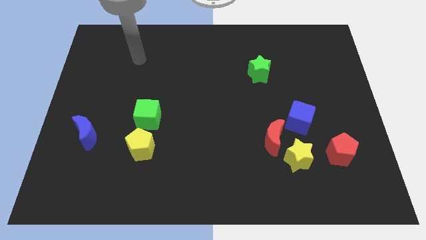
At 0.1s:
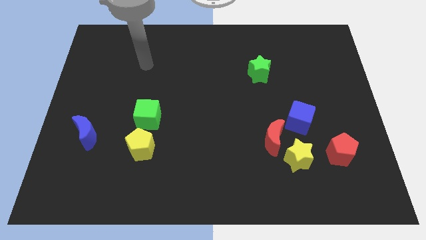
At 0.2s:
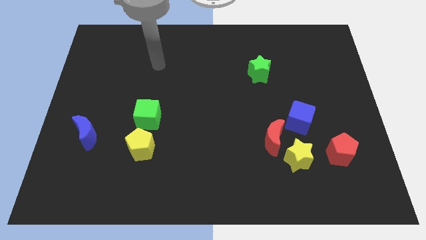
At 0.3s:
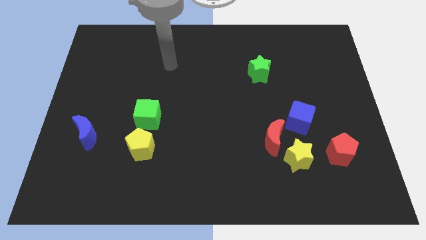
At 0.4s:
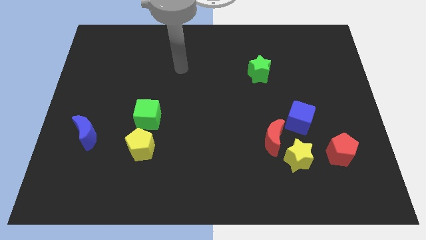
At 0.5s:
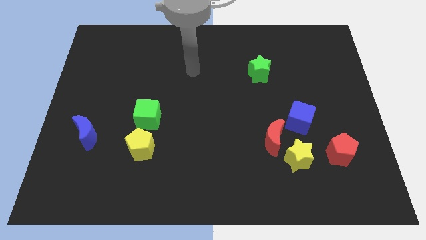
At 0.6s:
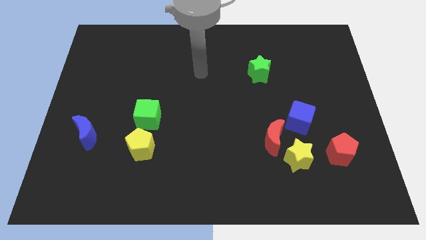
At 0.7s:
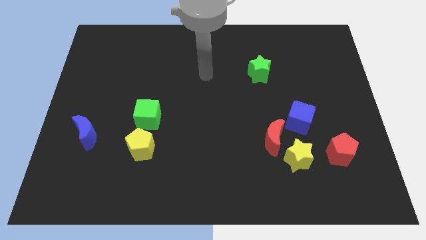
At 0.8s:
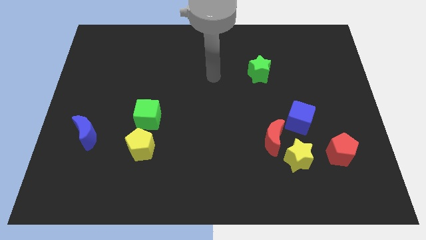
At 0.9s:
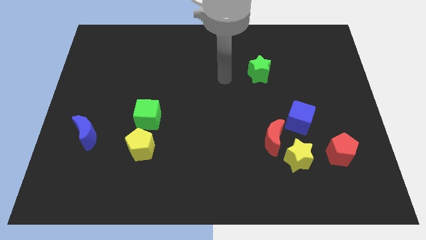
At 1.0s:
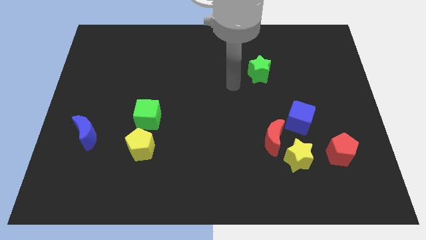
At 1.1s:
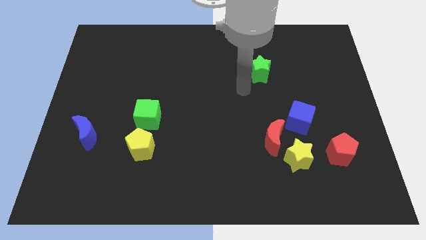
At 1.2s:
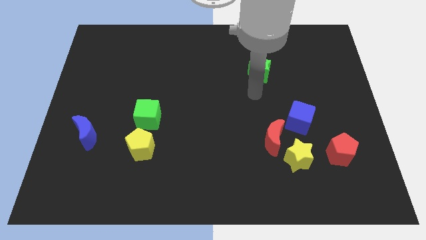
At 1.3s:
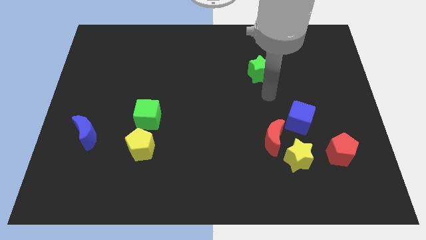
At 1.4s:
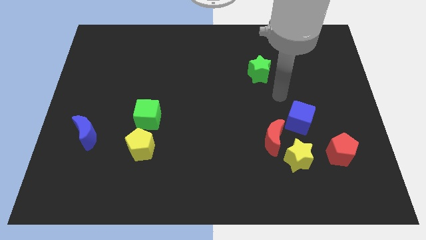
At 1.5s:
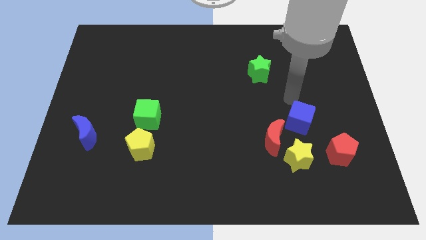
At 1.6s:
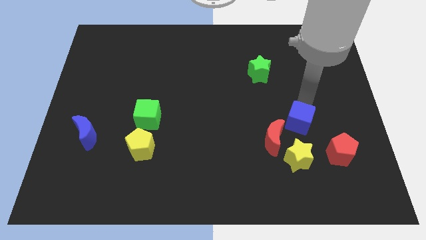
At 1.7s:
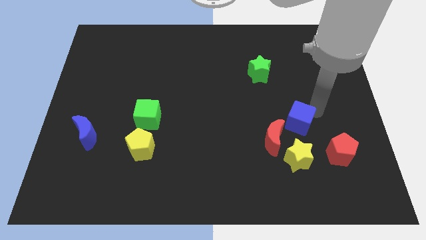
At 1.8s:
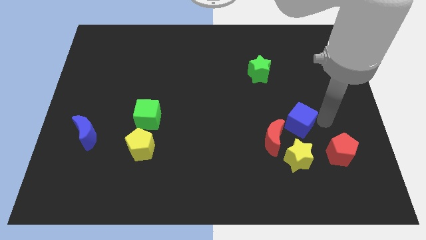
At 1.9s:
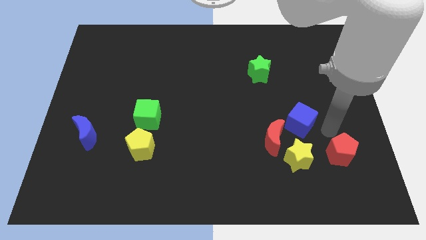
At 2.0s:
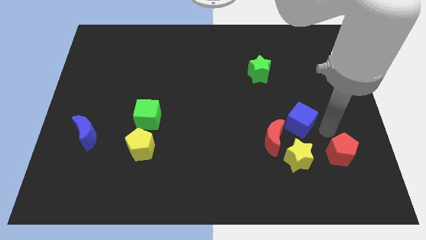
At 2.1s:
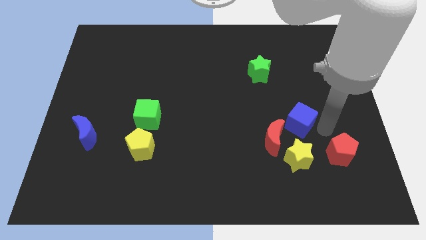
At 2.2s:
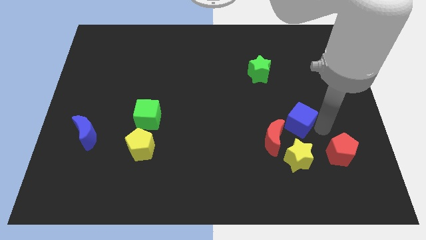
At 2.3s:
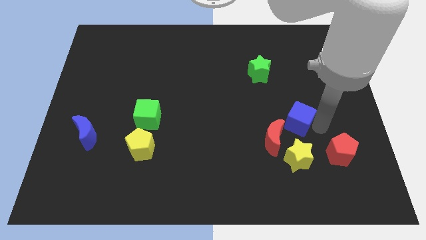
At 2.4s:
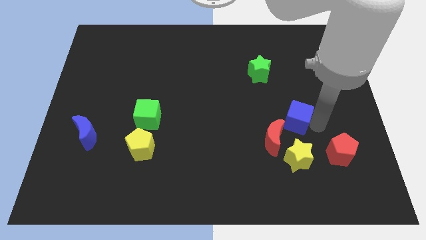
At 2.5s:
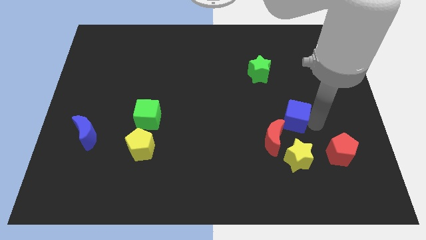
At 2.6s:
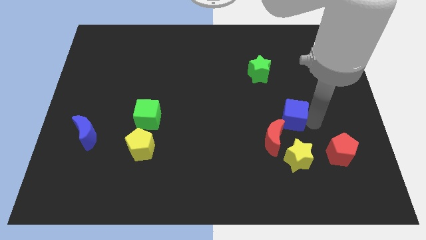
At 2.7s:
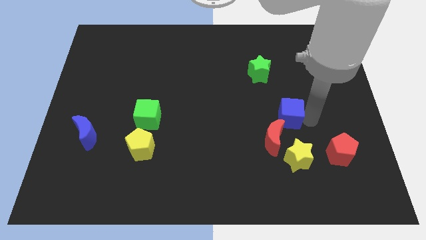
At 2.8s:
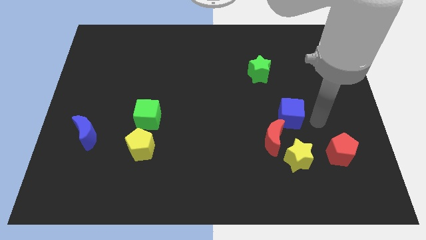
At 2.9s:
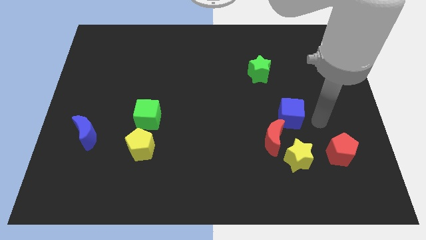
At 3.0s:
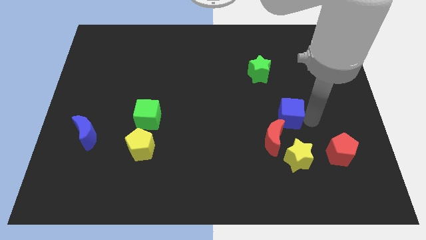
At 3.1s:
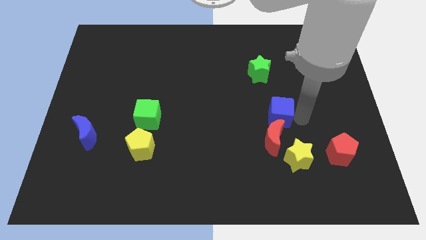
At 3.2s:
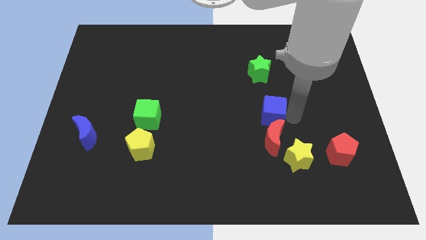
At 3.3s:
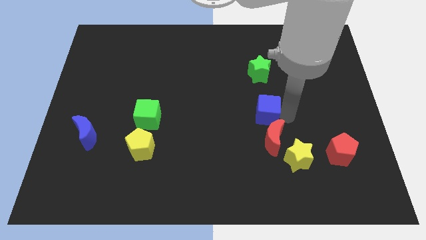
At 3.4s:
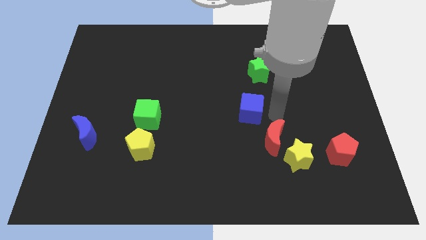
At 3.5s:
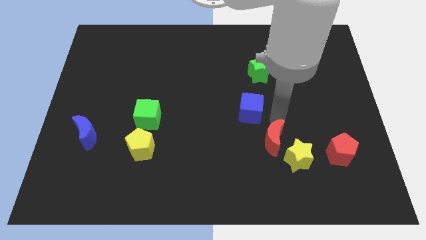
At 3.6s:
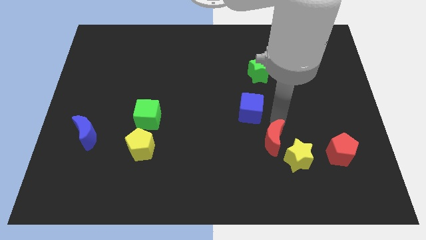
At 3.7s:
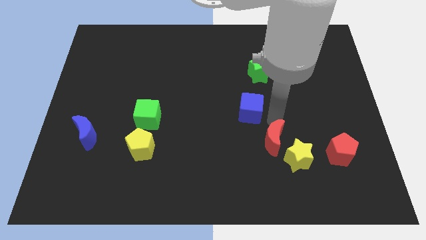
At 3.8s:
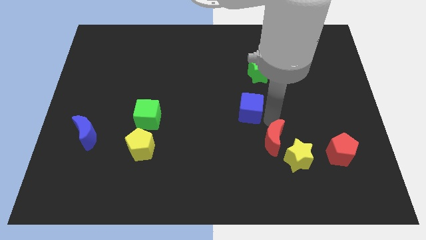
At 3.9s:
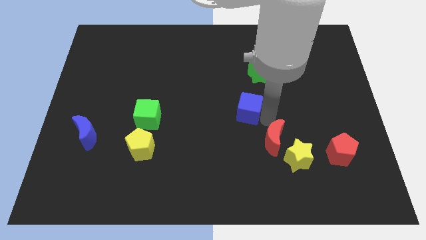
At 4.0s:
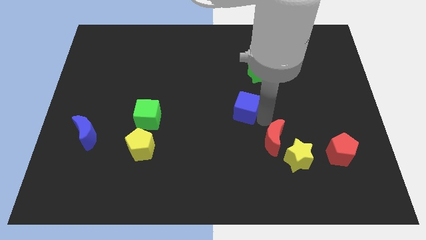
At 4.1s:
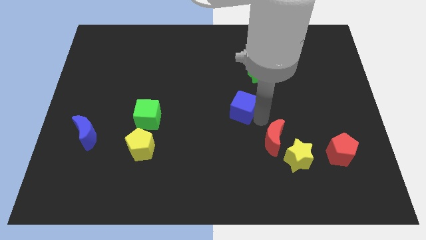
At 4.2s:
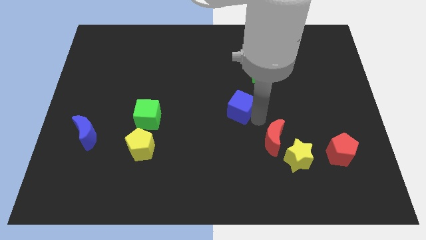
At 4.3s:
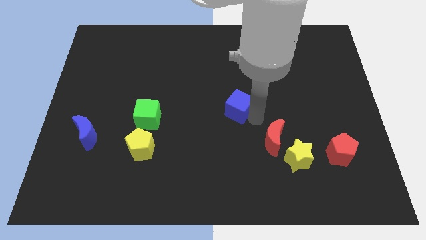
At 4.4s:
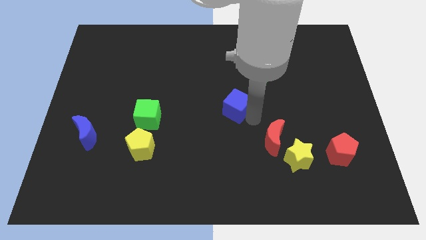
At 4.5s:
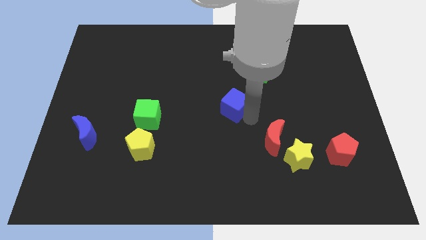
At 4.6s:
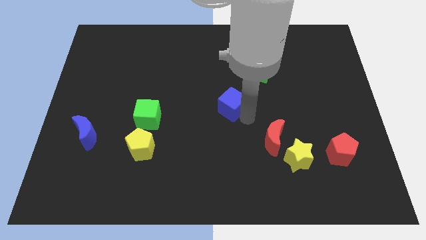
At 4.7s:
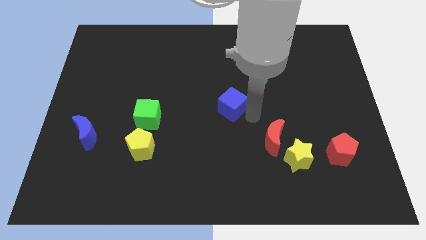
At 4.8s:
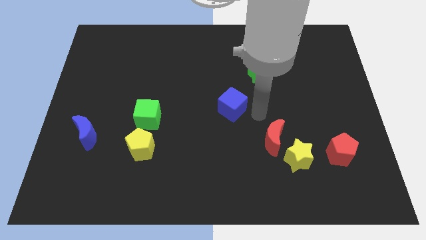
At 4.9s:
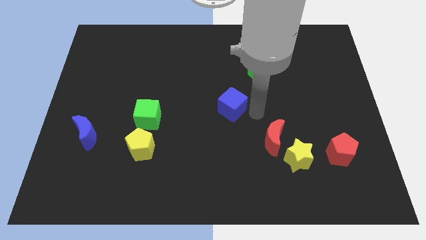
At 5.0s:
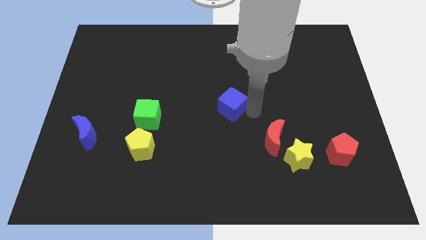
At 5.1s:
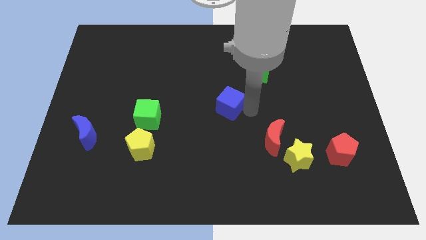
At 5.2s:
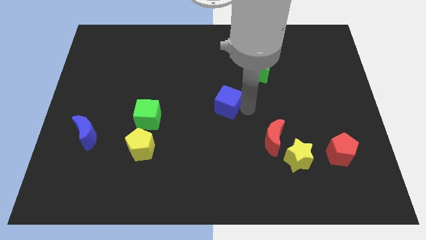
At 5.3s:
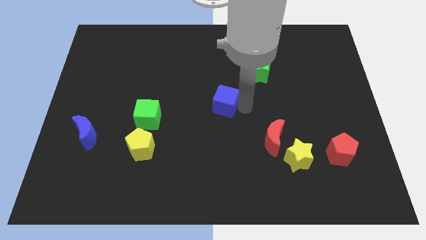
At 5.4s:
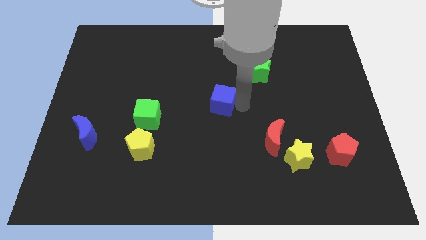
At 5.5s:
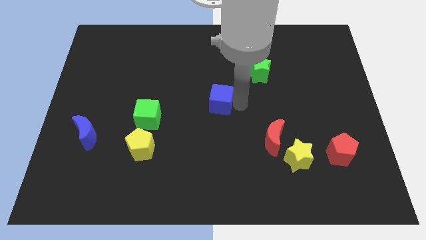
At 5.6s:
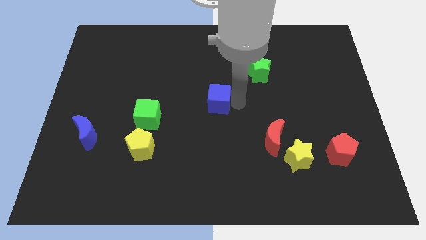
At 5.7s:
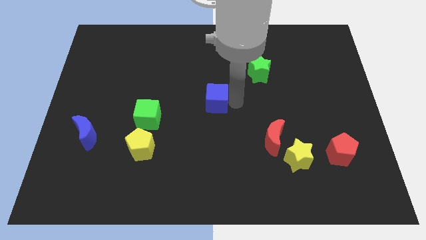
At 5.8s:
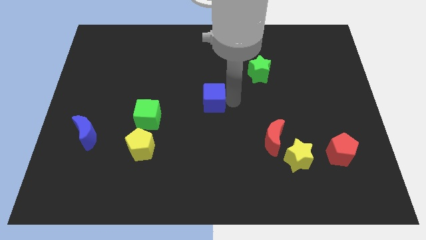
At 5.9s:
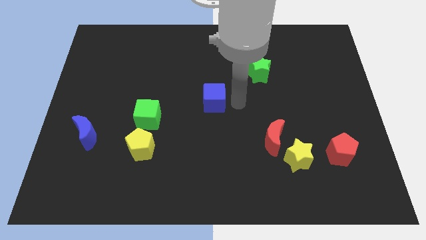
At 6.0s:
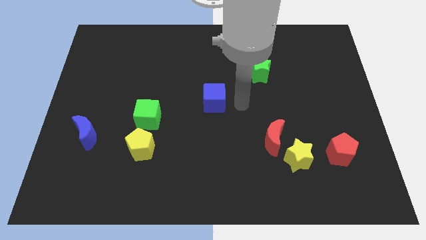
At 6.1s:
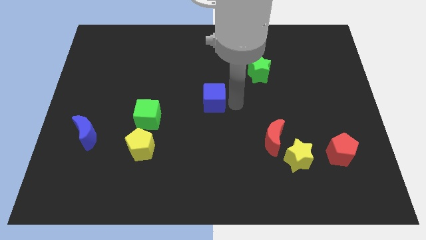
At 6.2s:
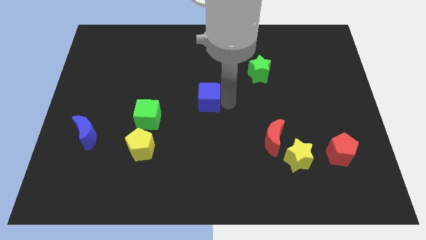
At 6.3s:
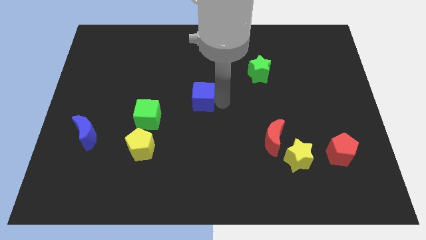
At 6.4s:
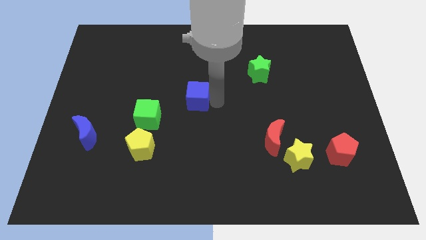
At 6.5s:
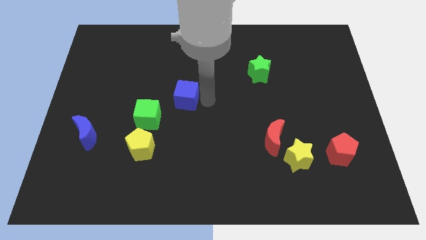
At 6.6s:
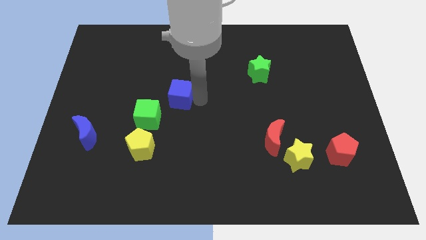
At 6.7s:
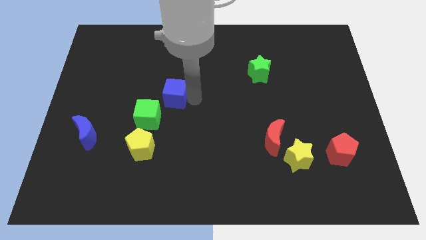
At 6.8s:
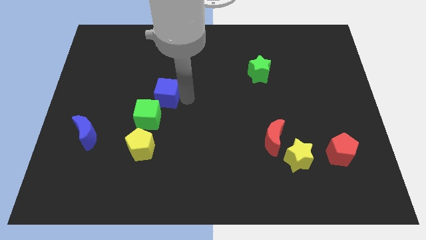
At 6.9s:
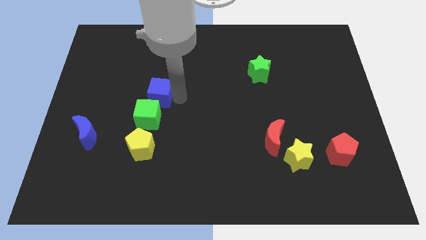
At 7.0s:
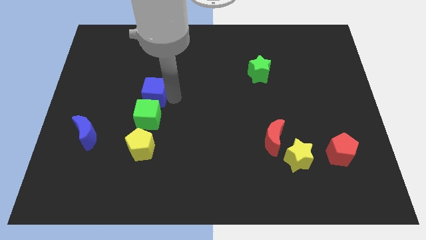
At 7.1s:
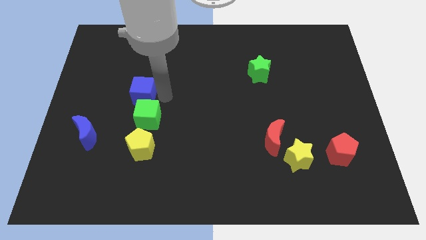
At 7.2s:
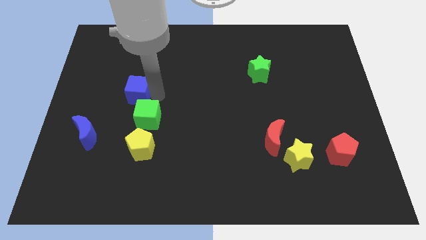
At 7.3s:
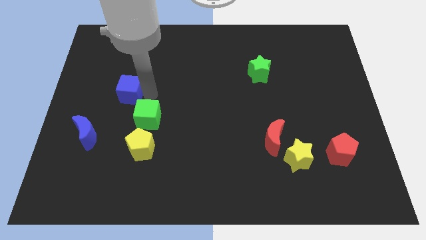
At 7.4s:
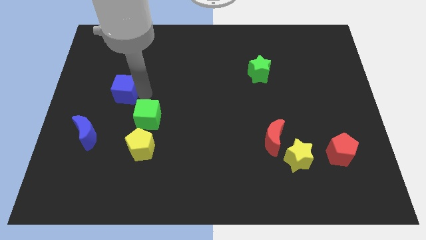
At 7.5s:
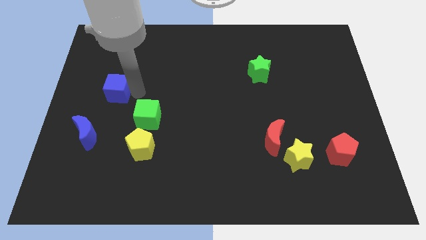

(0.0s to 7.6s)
move the blue cube to the top of the blue moon
